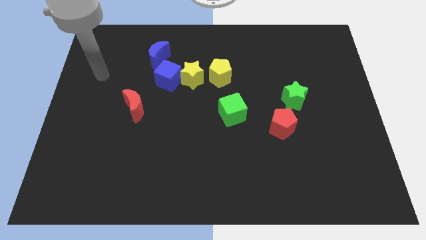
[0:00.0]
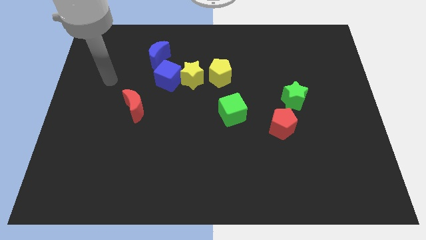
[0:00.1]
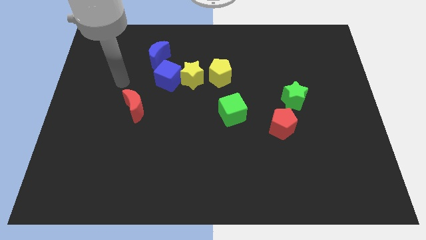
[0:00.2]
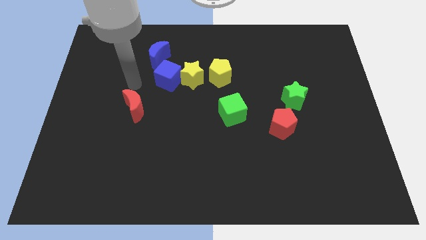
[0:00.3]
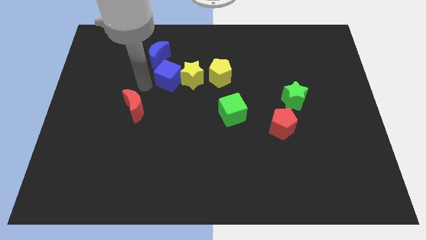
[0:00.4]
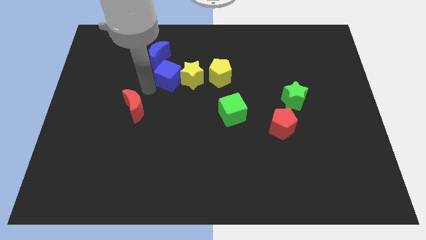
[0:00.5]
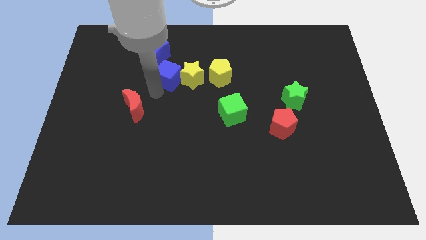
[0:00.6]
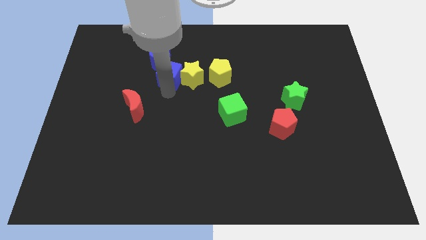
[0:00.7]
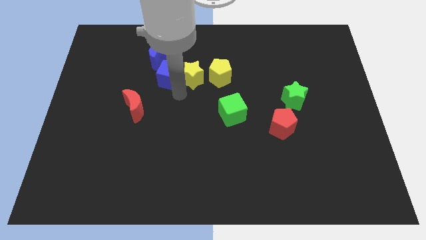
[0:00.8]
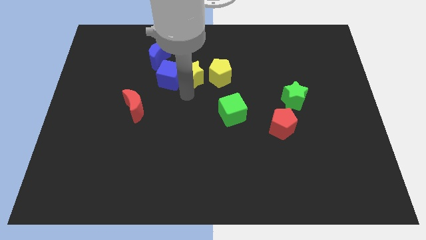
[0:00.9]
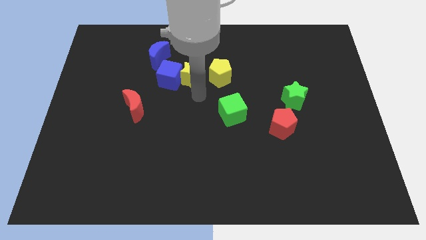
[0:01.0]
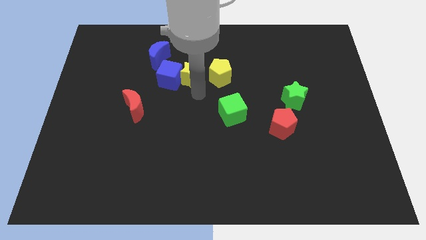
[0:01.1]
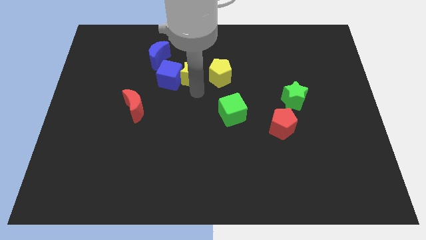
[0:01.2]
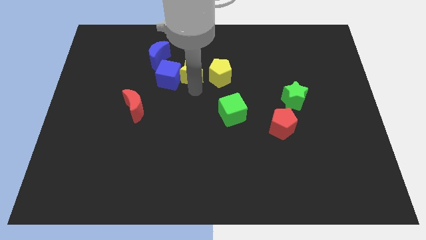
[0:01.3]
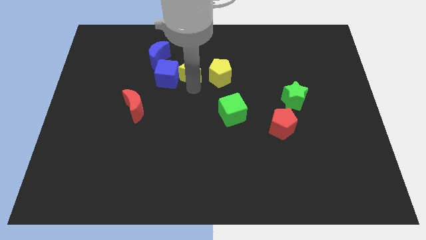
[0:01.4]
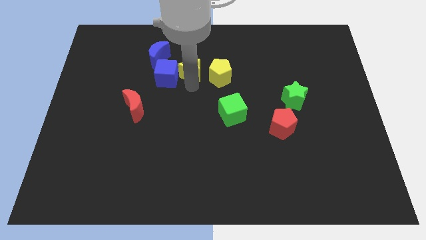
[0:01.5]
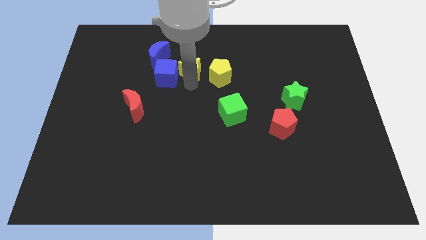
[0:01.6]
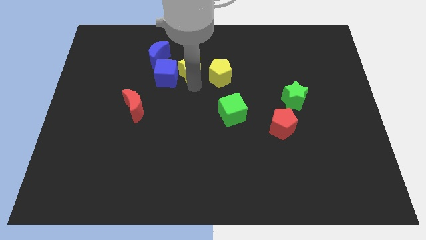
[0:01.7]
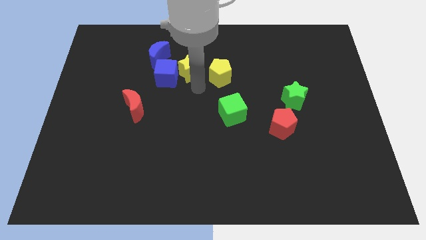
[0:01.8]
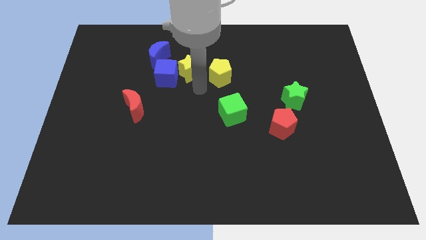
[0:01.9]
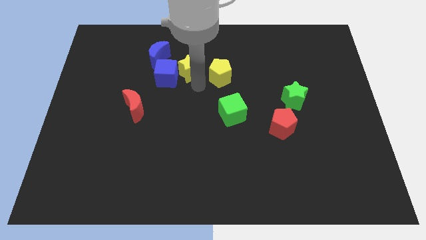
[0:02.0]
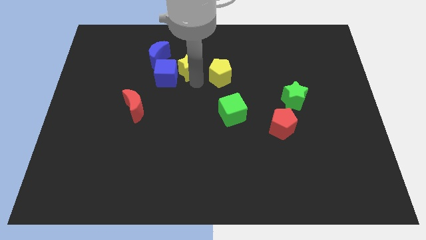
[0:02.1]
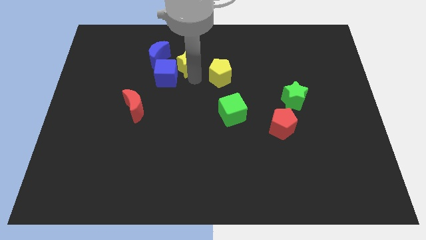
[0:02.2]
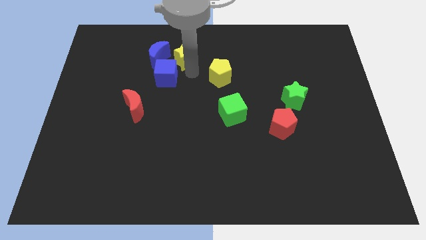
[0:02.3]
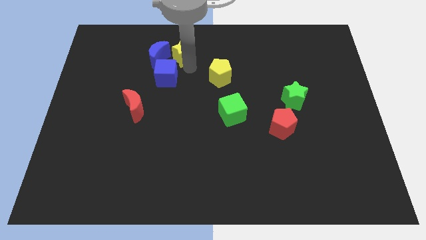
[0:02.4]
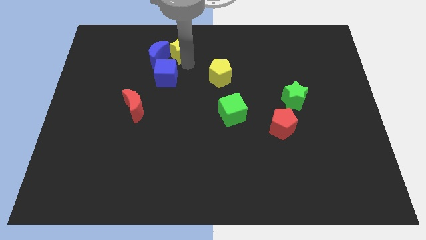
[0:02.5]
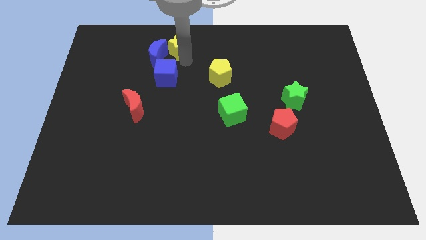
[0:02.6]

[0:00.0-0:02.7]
pull the yellow star apart from the blue cube and yellow pentagon

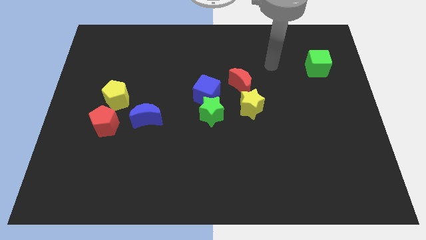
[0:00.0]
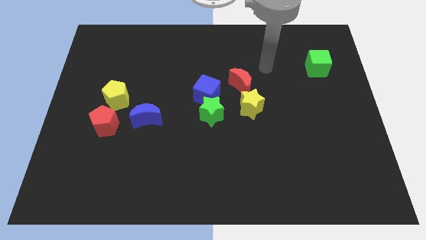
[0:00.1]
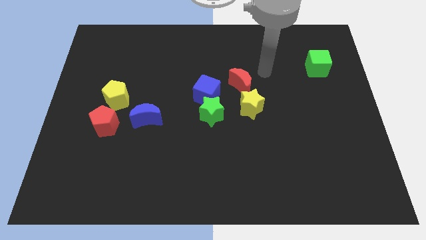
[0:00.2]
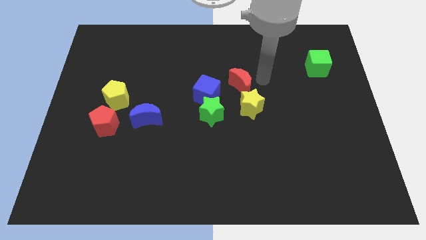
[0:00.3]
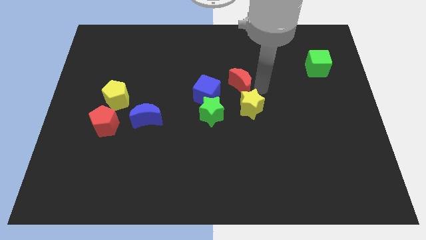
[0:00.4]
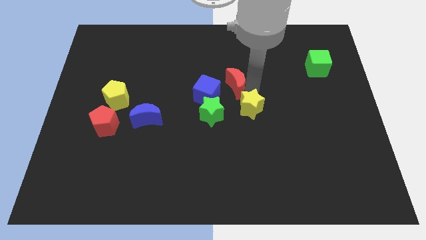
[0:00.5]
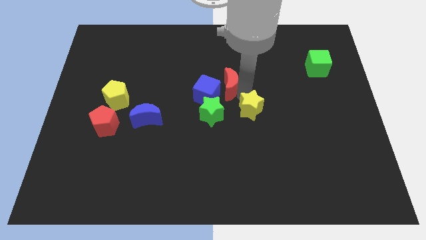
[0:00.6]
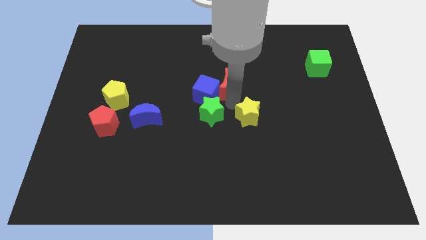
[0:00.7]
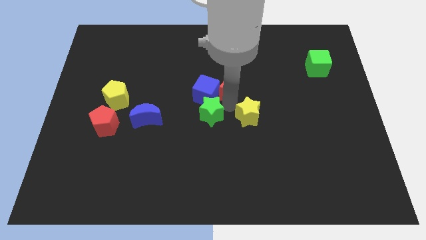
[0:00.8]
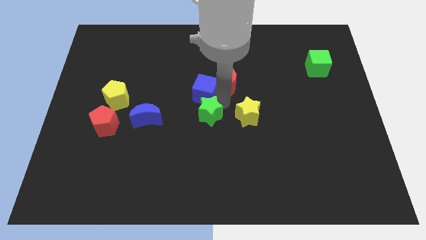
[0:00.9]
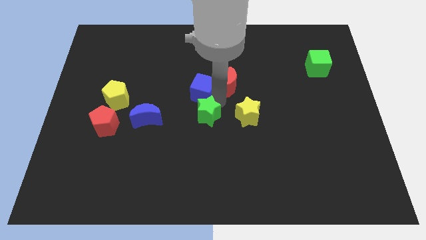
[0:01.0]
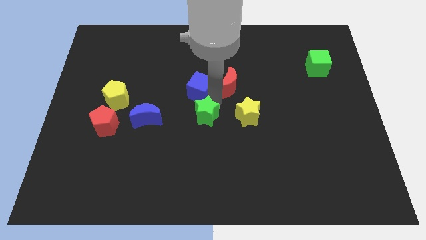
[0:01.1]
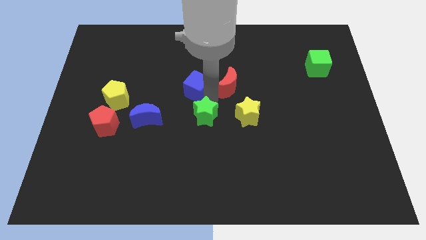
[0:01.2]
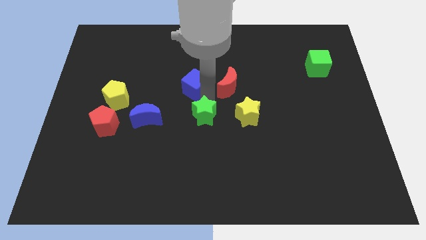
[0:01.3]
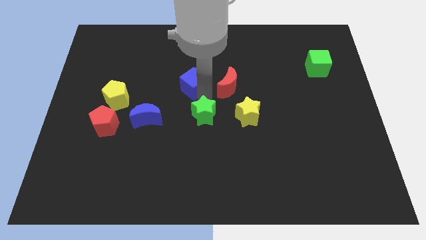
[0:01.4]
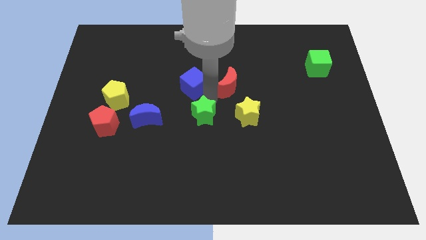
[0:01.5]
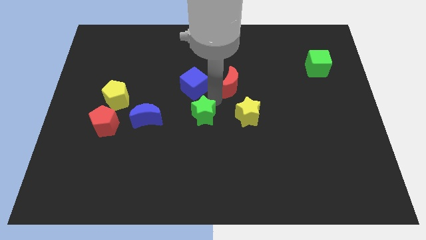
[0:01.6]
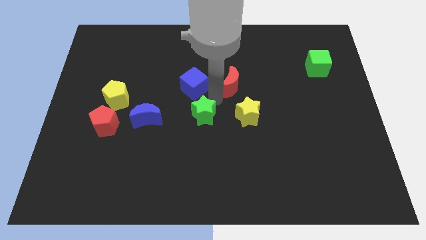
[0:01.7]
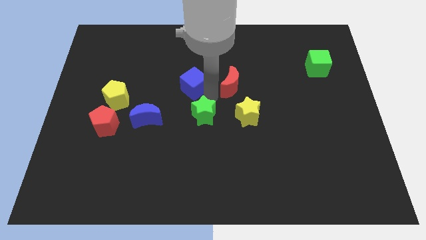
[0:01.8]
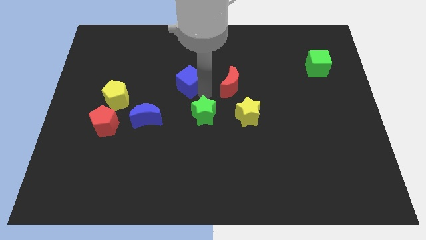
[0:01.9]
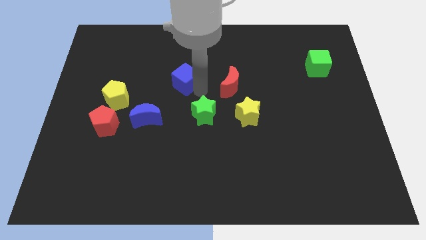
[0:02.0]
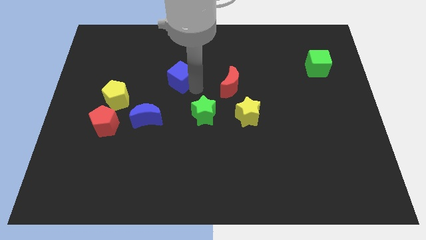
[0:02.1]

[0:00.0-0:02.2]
move the blue cube away from the green star and red moon

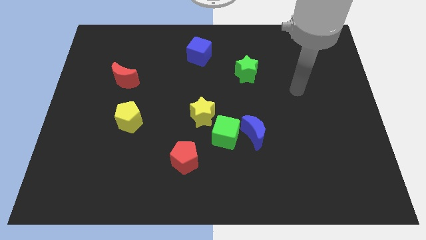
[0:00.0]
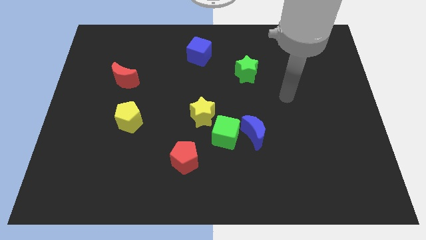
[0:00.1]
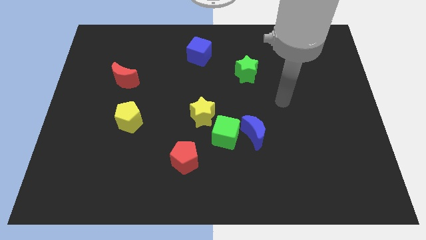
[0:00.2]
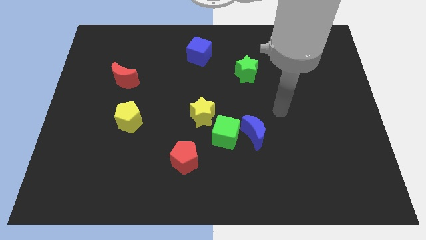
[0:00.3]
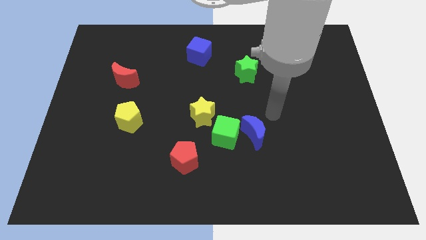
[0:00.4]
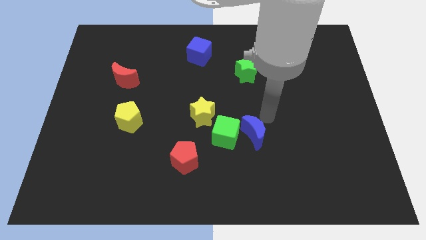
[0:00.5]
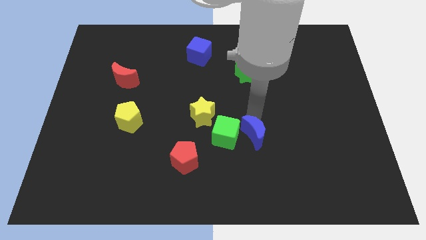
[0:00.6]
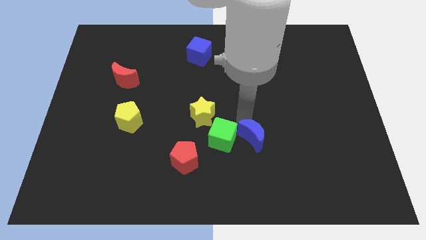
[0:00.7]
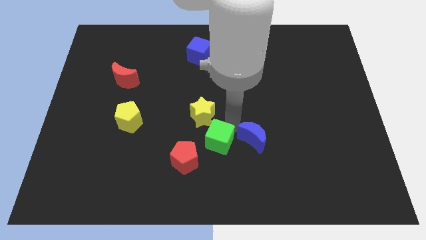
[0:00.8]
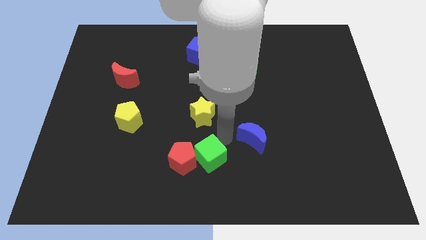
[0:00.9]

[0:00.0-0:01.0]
move the blue moon away from the green cube

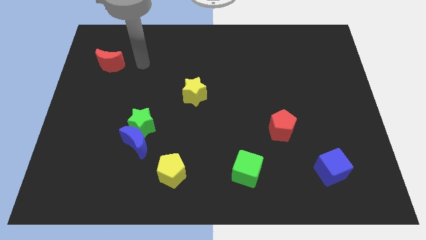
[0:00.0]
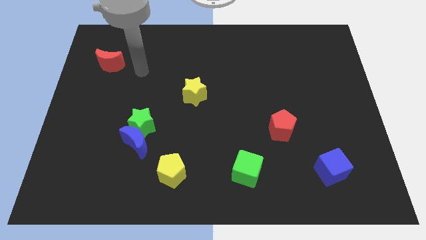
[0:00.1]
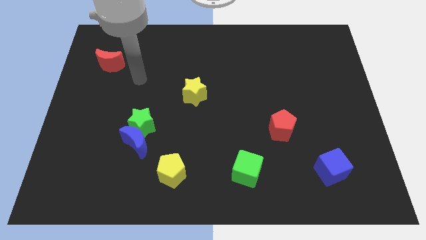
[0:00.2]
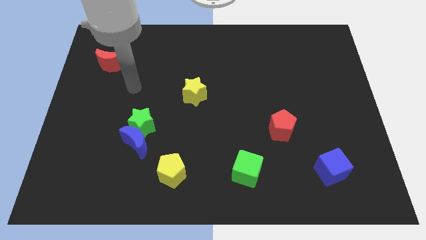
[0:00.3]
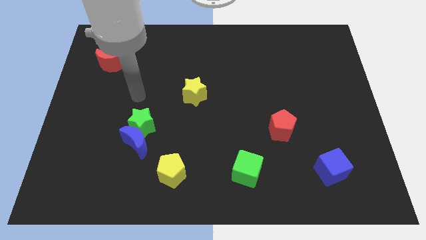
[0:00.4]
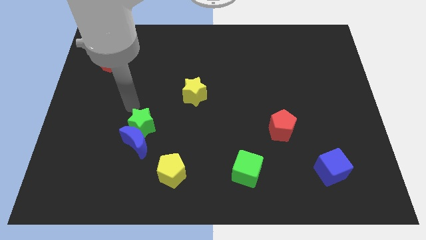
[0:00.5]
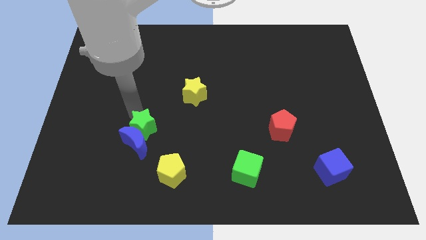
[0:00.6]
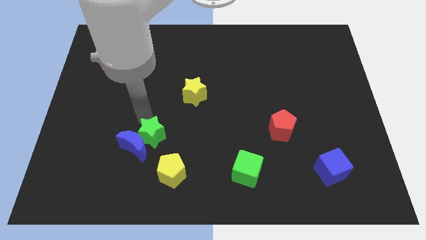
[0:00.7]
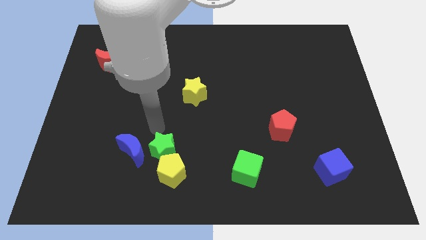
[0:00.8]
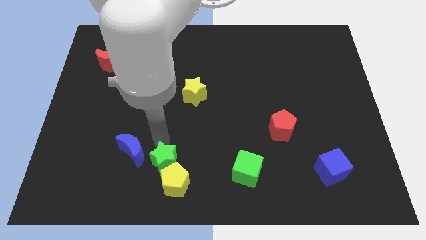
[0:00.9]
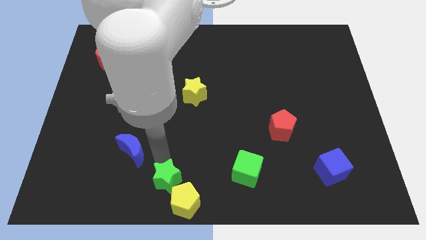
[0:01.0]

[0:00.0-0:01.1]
separate the blue moon from the green star

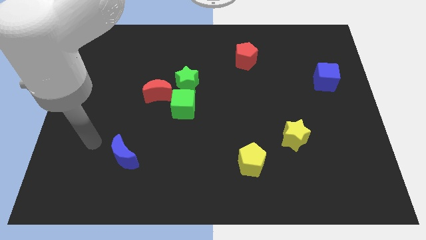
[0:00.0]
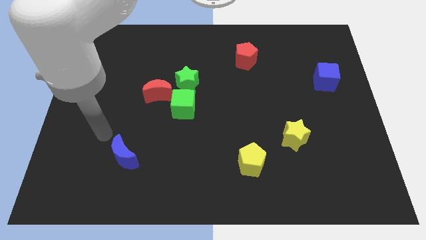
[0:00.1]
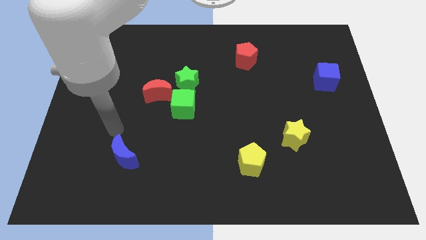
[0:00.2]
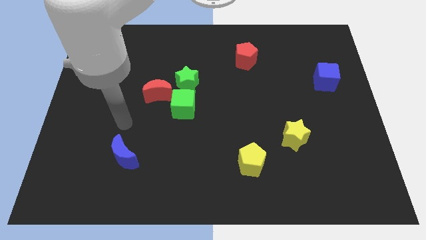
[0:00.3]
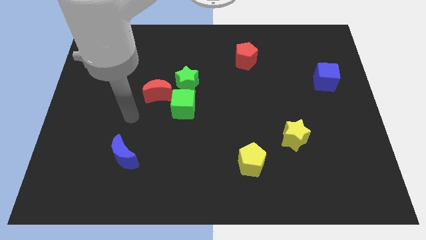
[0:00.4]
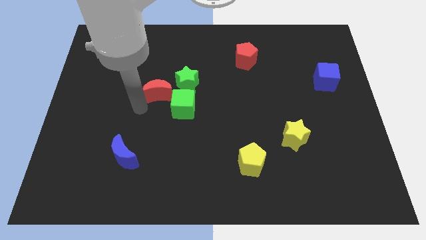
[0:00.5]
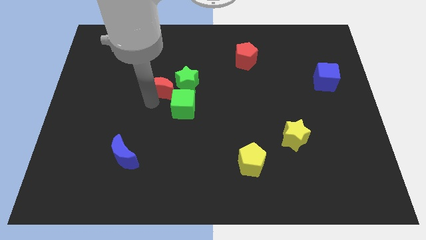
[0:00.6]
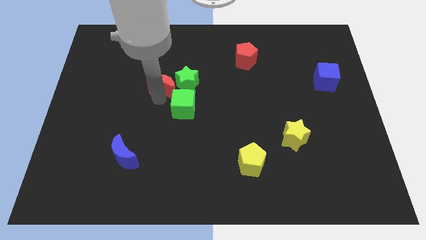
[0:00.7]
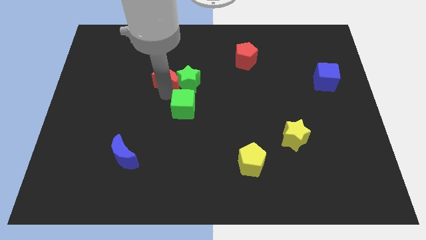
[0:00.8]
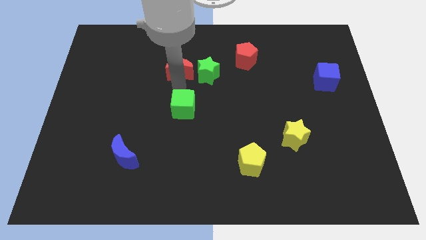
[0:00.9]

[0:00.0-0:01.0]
separate the green cube from the green star and red moon

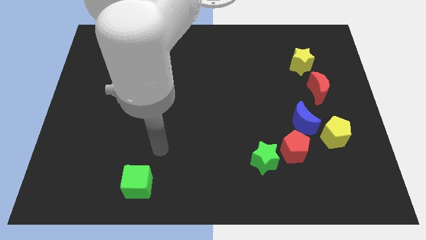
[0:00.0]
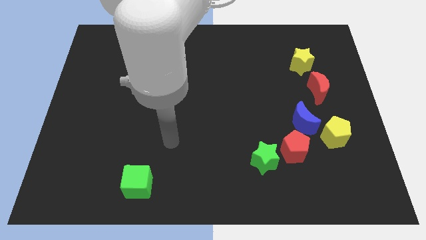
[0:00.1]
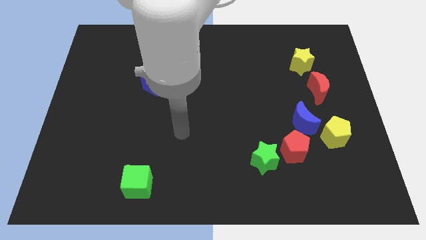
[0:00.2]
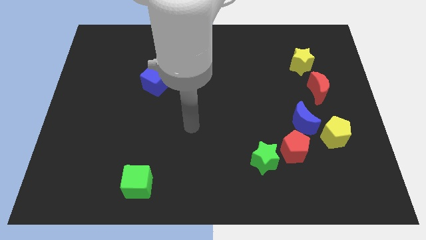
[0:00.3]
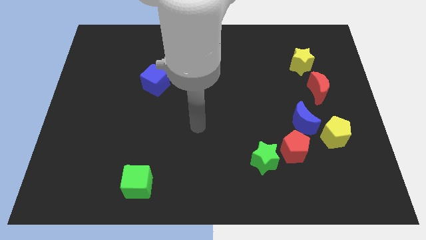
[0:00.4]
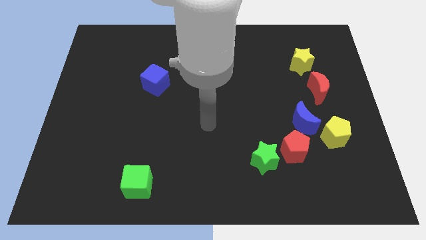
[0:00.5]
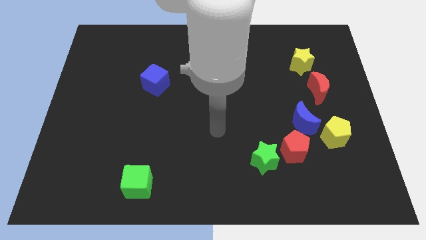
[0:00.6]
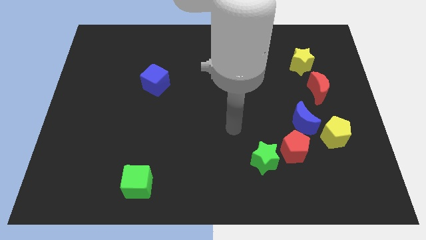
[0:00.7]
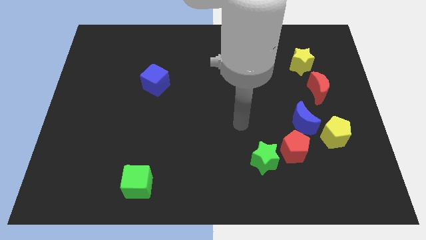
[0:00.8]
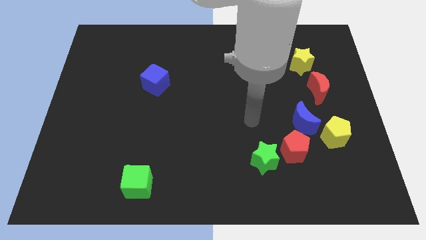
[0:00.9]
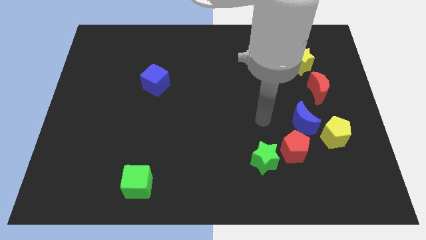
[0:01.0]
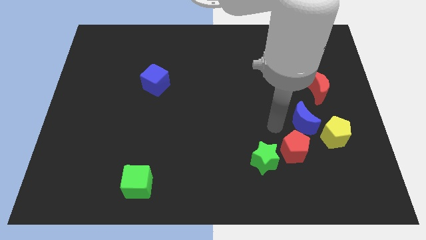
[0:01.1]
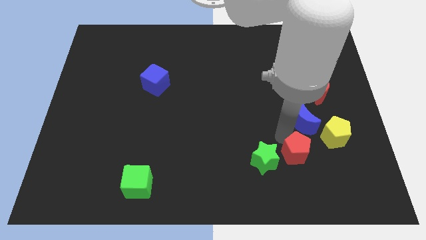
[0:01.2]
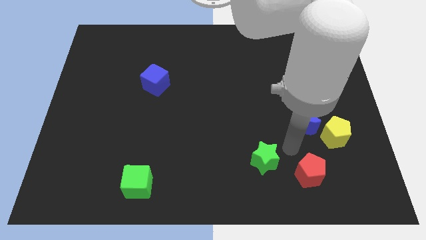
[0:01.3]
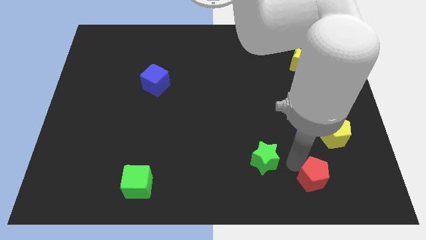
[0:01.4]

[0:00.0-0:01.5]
move the green star away from the red pentagon
